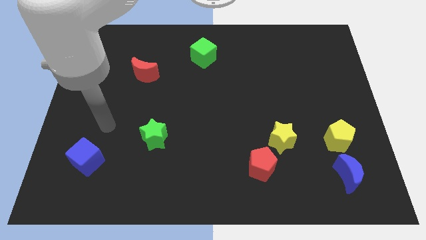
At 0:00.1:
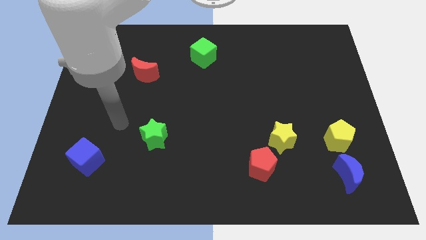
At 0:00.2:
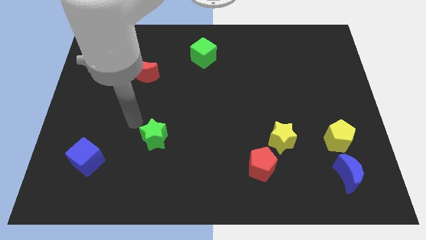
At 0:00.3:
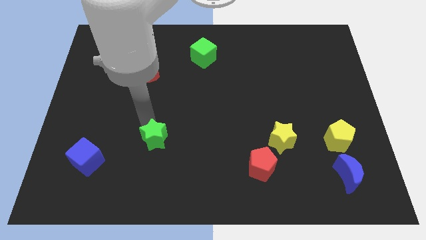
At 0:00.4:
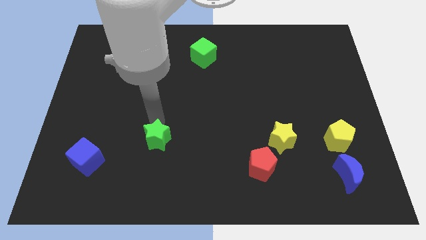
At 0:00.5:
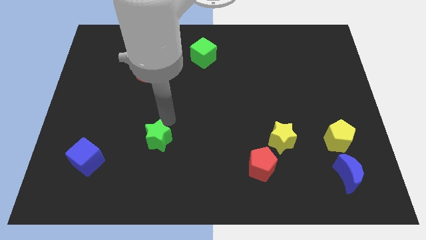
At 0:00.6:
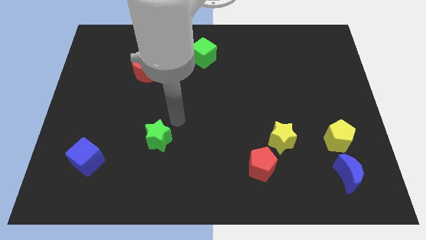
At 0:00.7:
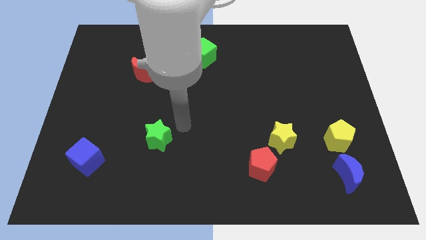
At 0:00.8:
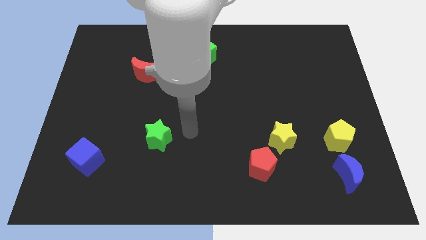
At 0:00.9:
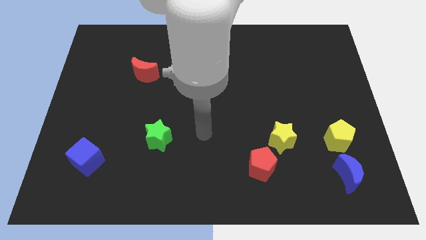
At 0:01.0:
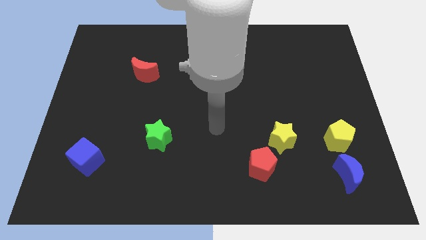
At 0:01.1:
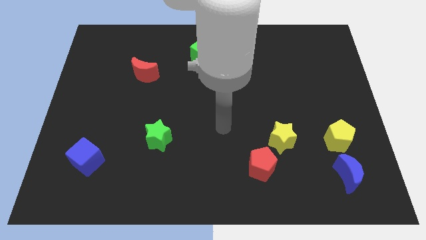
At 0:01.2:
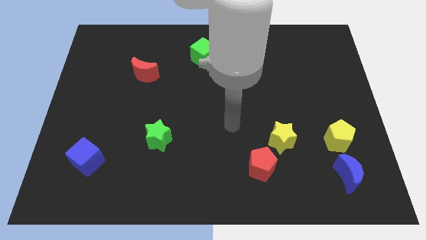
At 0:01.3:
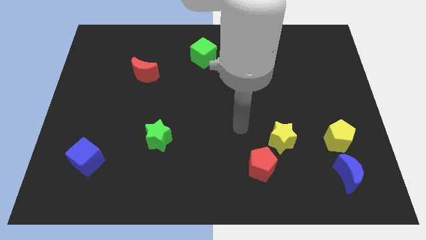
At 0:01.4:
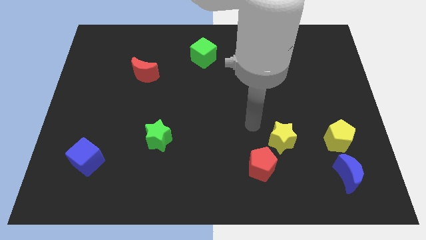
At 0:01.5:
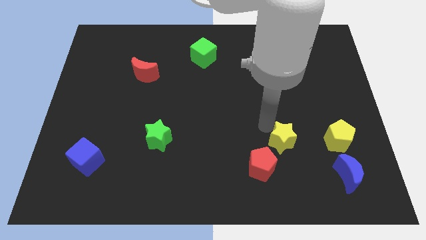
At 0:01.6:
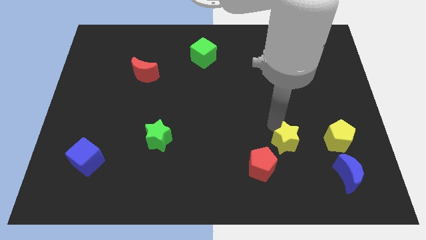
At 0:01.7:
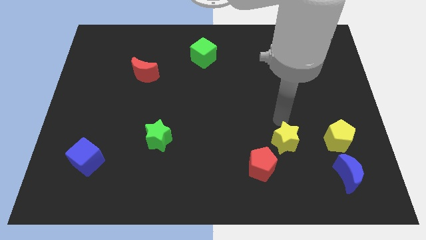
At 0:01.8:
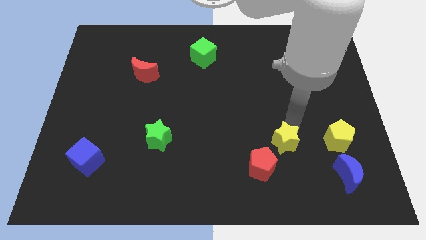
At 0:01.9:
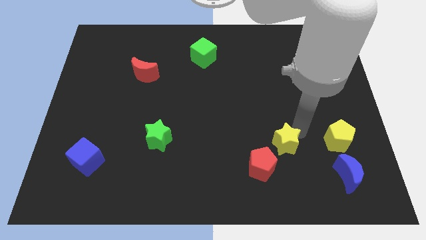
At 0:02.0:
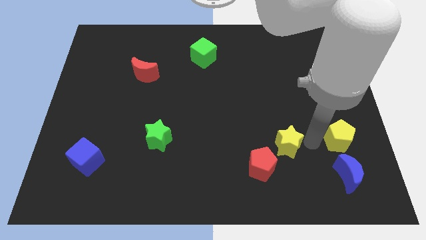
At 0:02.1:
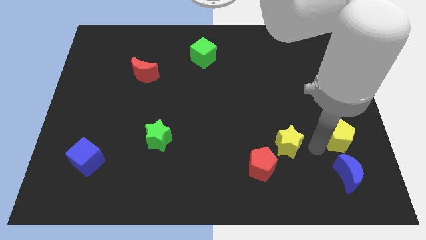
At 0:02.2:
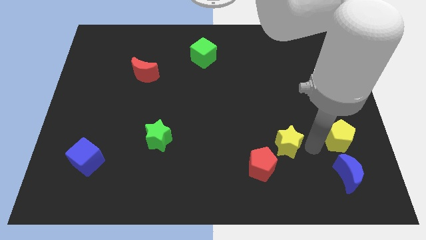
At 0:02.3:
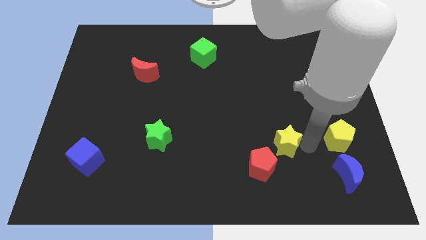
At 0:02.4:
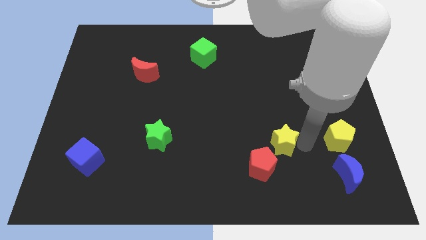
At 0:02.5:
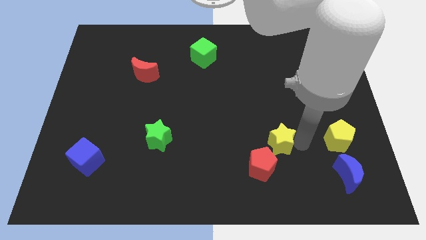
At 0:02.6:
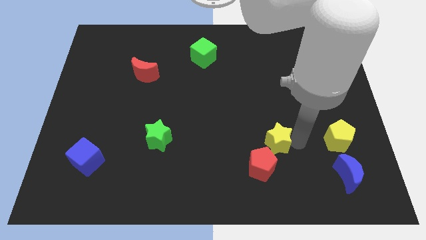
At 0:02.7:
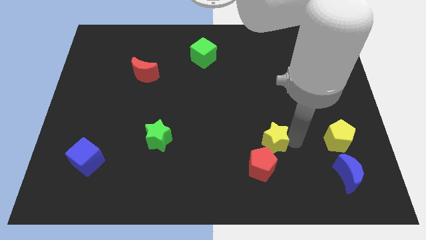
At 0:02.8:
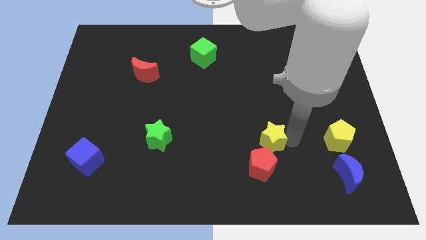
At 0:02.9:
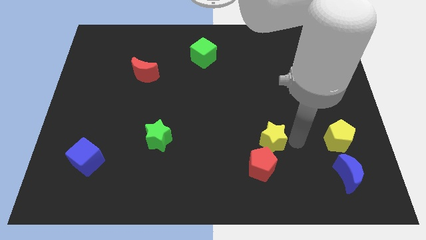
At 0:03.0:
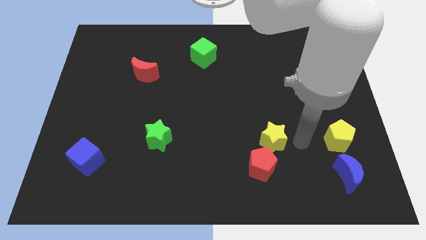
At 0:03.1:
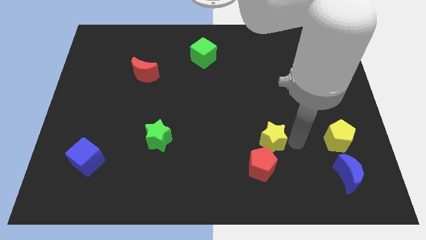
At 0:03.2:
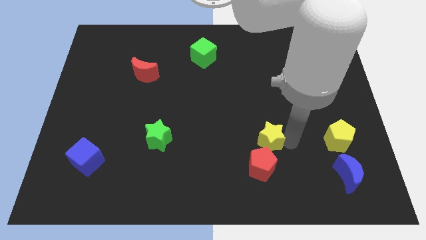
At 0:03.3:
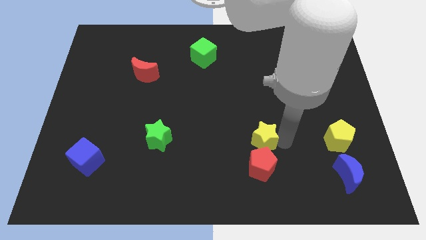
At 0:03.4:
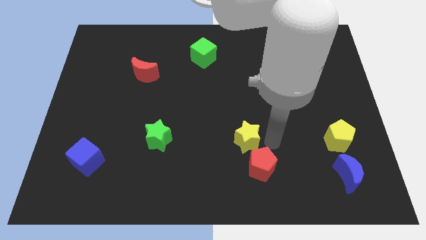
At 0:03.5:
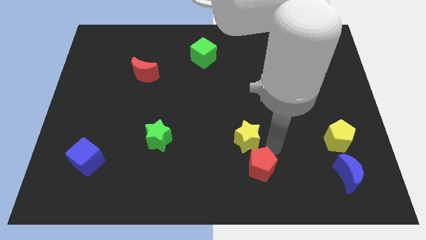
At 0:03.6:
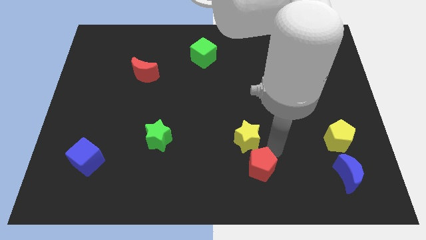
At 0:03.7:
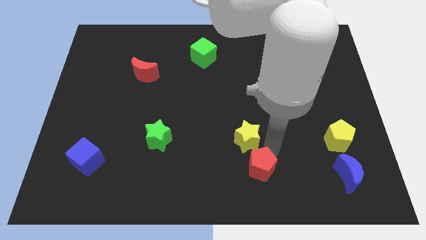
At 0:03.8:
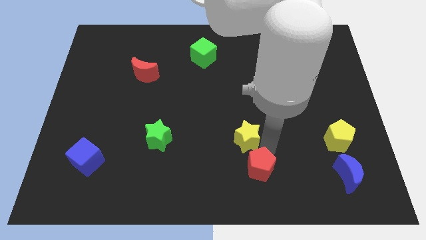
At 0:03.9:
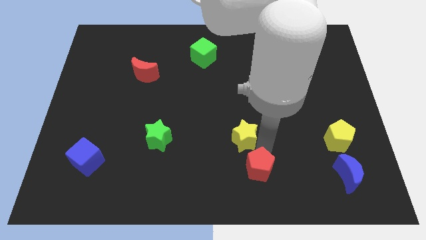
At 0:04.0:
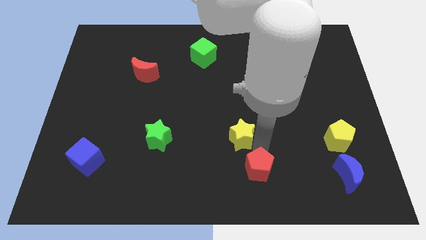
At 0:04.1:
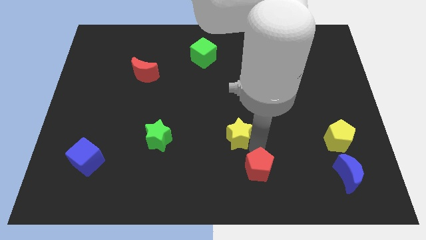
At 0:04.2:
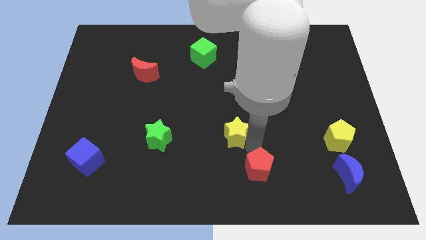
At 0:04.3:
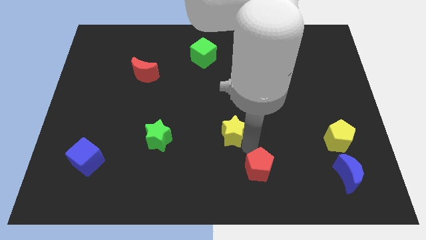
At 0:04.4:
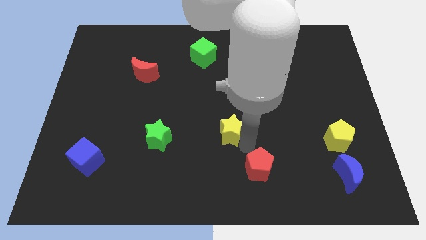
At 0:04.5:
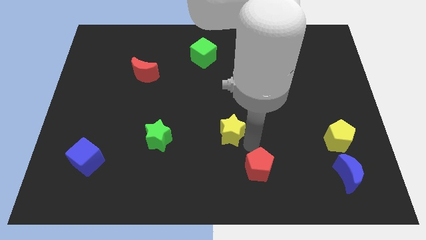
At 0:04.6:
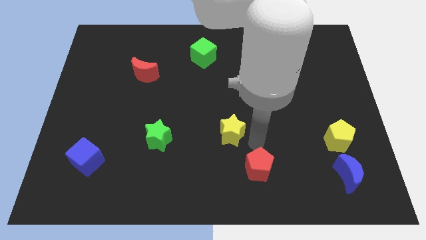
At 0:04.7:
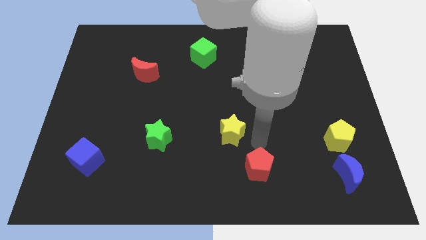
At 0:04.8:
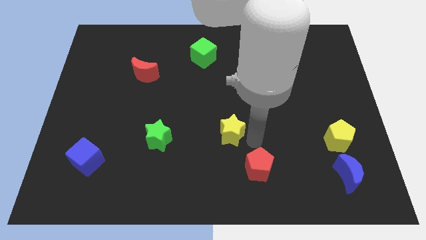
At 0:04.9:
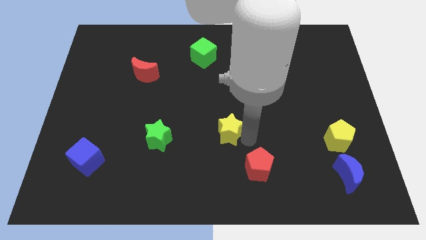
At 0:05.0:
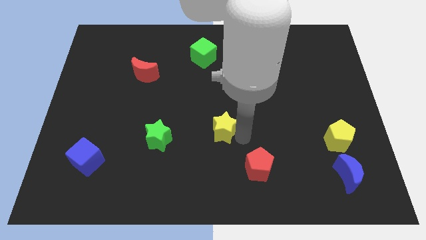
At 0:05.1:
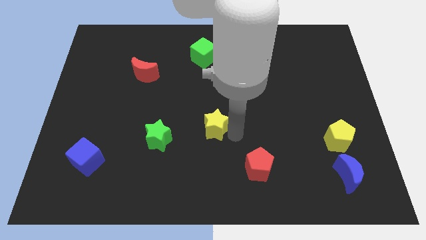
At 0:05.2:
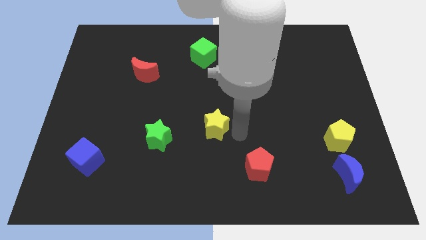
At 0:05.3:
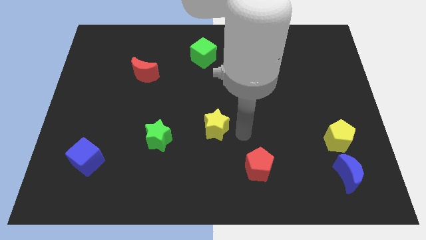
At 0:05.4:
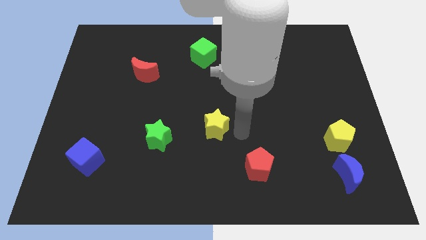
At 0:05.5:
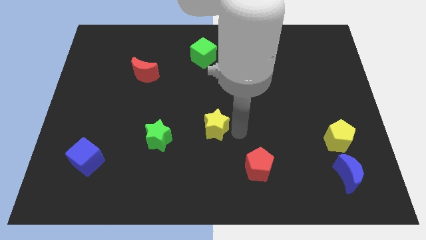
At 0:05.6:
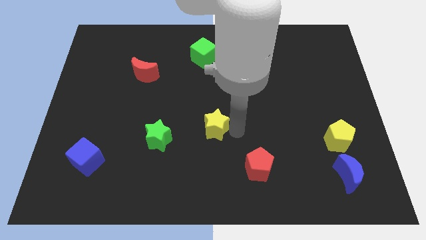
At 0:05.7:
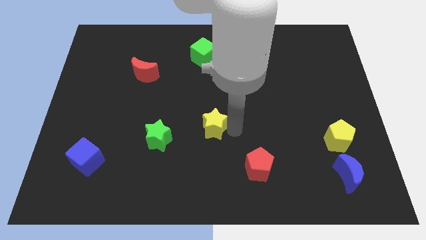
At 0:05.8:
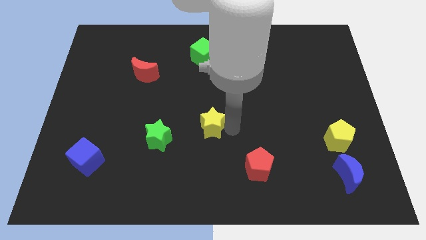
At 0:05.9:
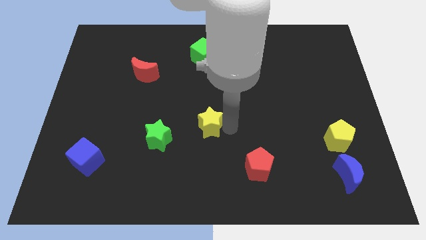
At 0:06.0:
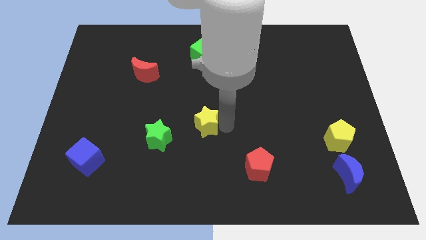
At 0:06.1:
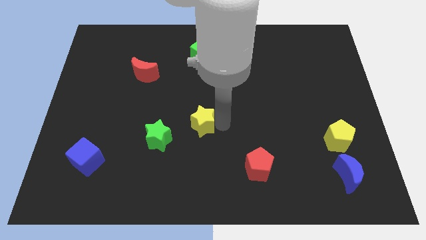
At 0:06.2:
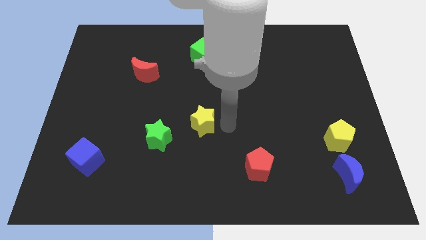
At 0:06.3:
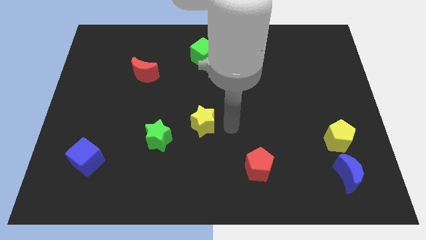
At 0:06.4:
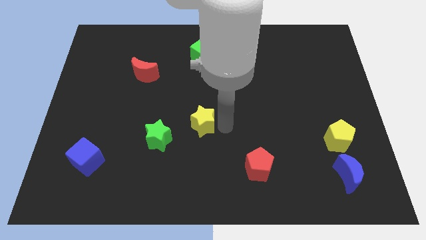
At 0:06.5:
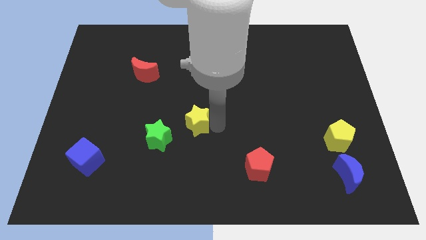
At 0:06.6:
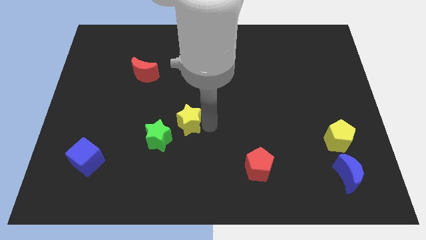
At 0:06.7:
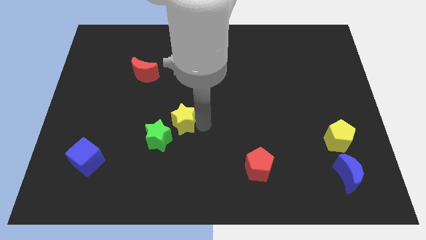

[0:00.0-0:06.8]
move the yellow star left

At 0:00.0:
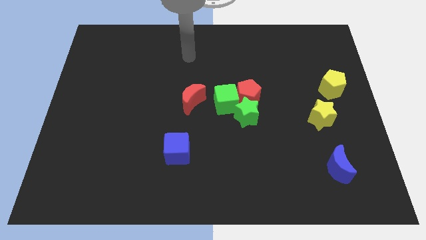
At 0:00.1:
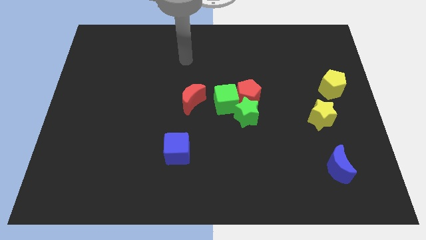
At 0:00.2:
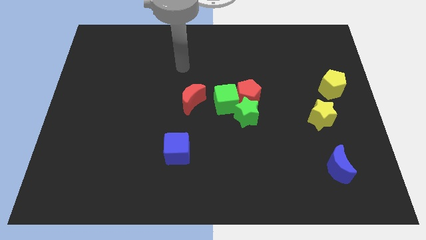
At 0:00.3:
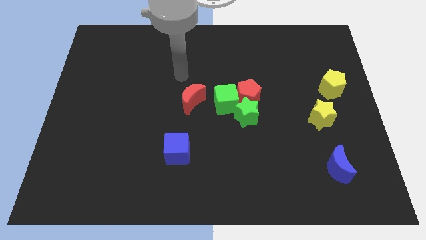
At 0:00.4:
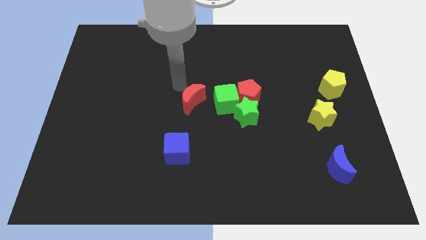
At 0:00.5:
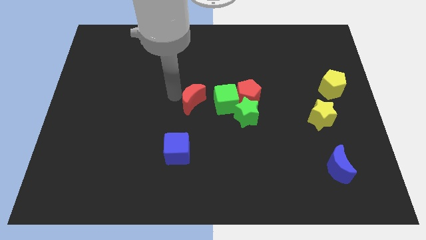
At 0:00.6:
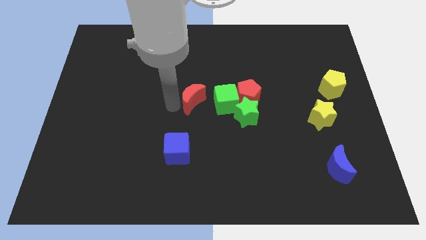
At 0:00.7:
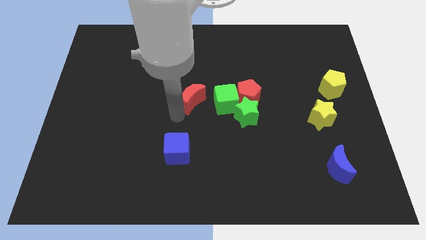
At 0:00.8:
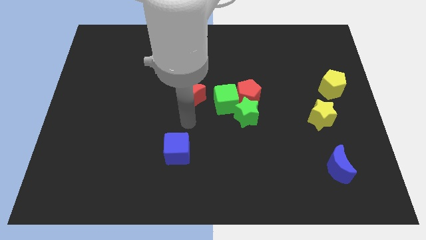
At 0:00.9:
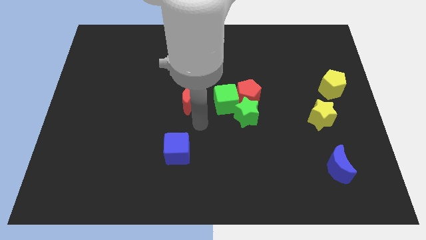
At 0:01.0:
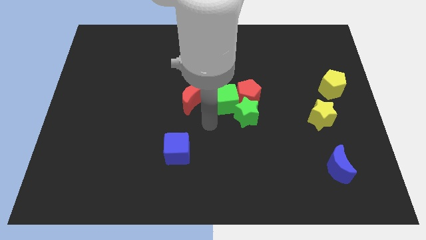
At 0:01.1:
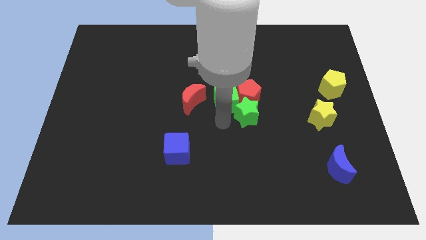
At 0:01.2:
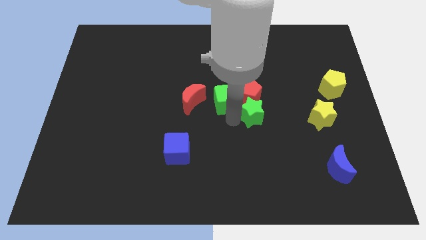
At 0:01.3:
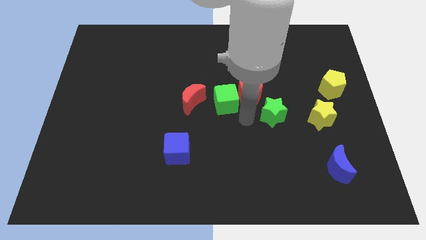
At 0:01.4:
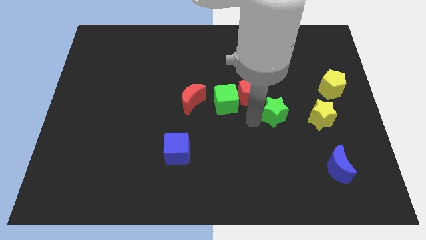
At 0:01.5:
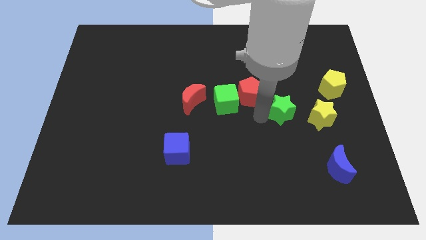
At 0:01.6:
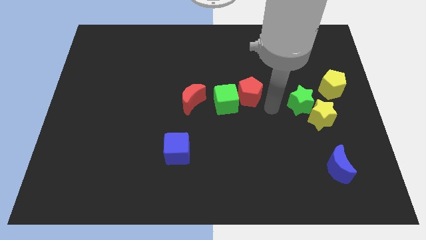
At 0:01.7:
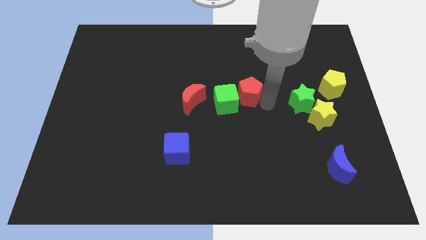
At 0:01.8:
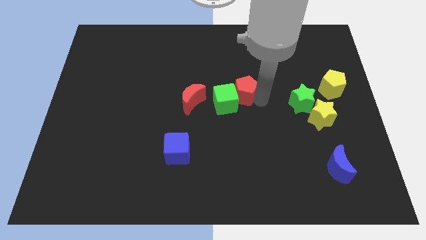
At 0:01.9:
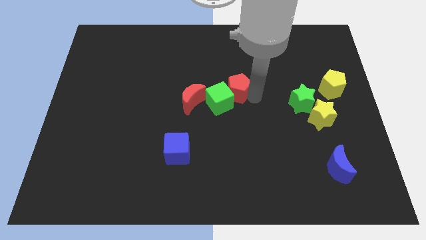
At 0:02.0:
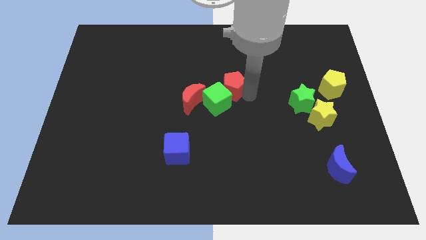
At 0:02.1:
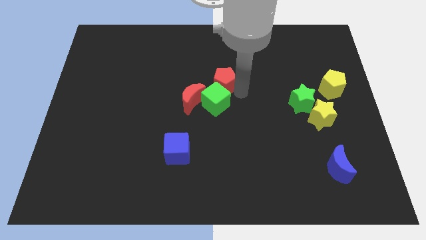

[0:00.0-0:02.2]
slightly slide the red pentagon up and to the left diagonally
